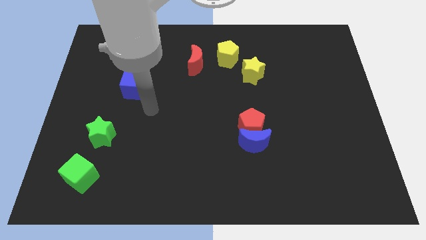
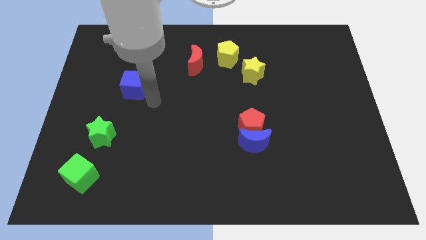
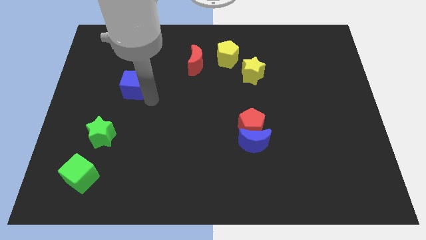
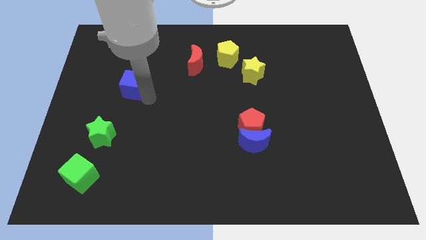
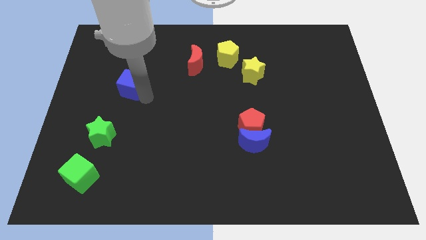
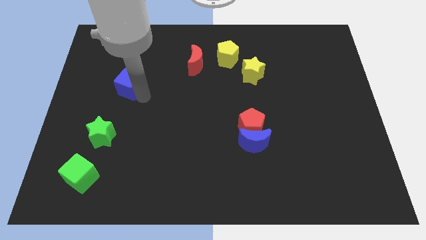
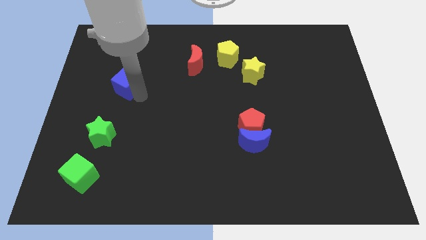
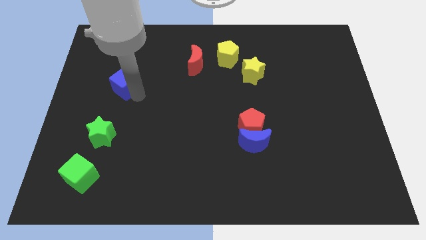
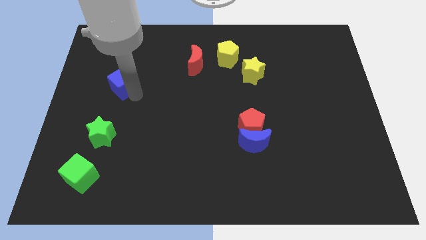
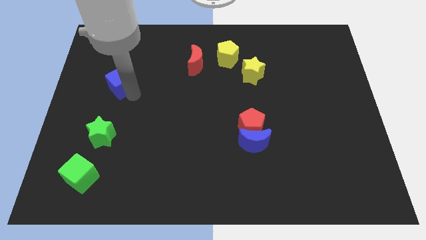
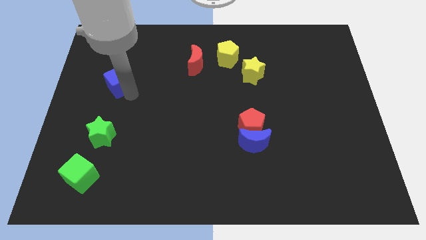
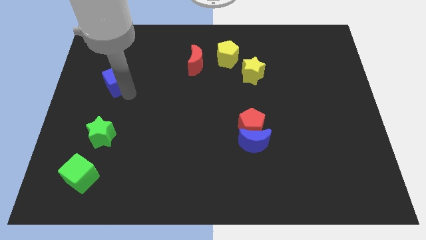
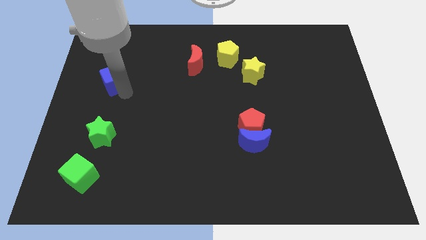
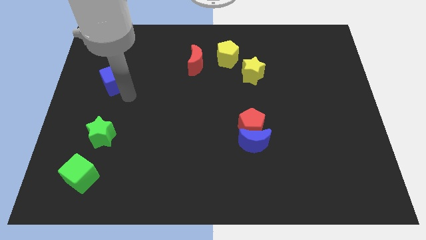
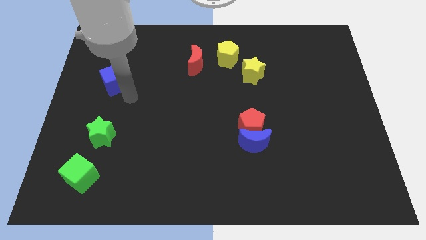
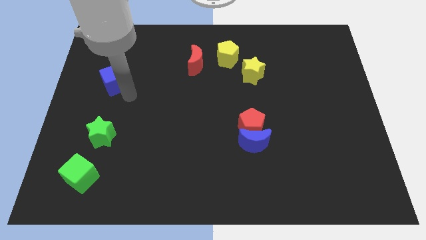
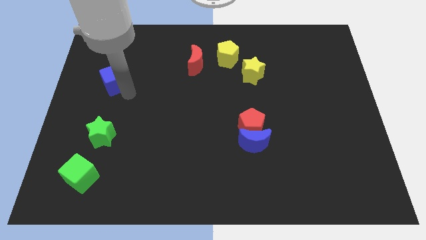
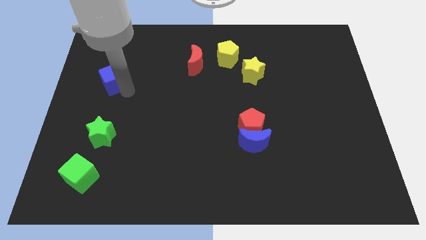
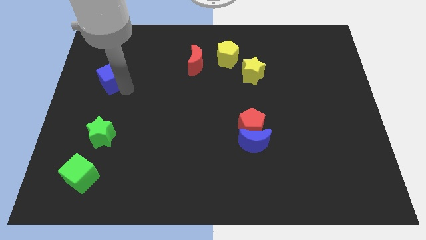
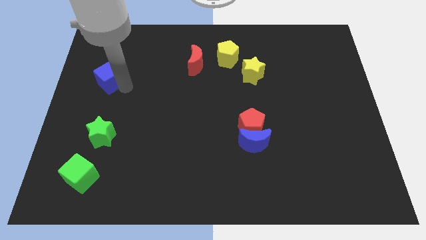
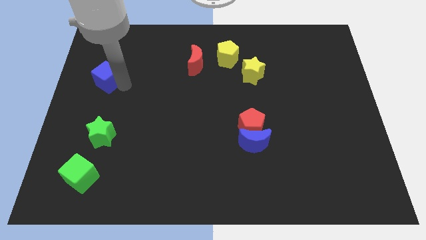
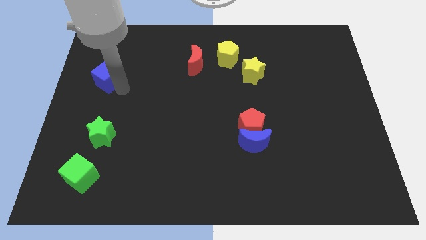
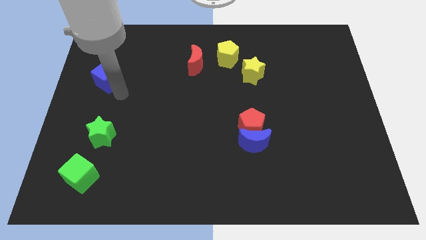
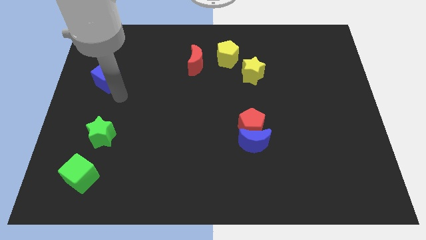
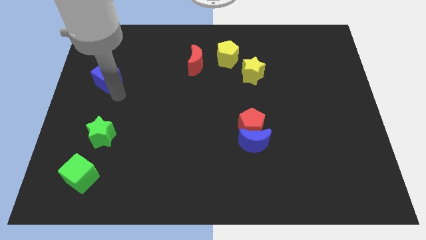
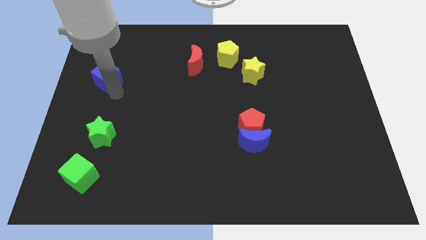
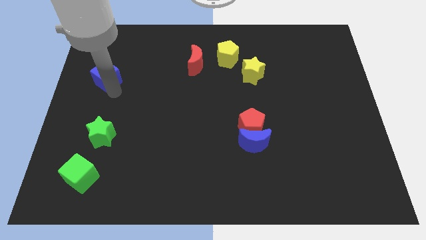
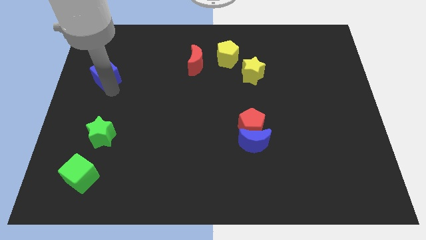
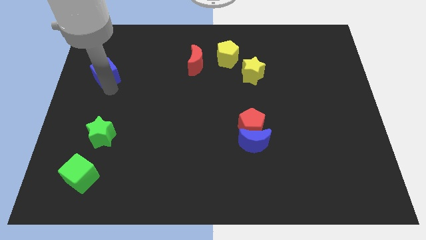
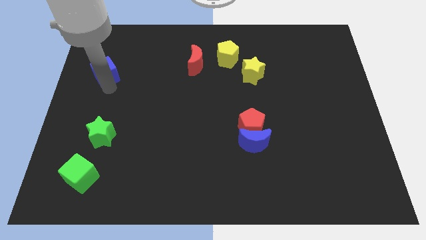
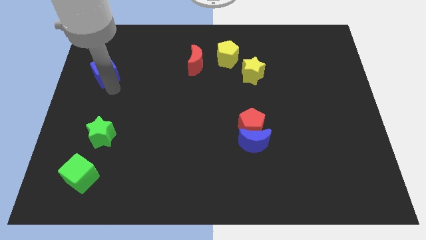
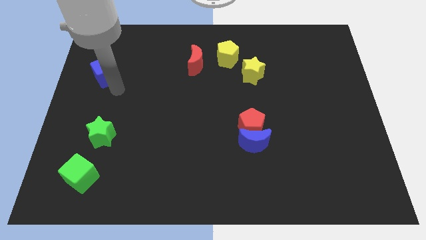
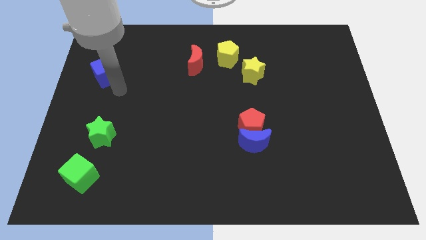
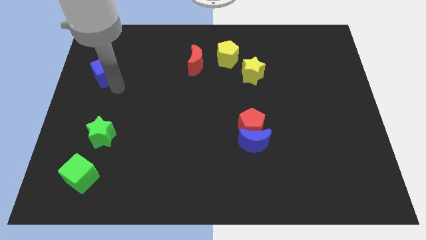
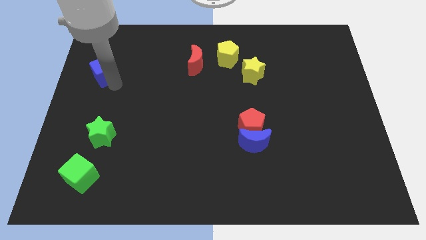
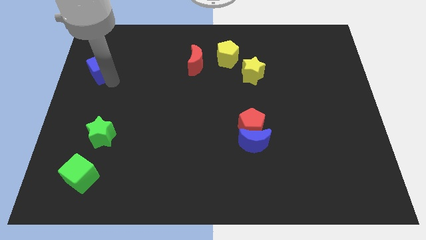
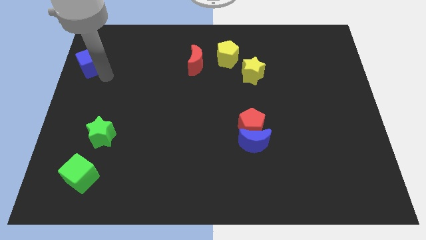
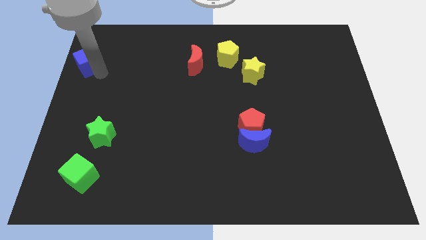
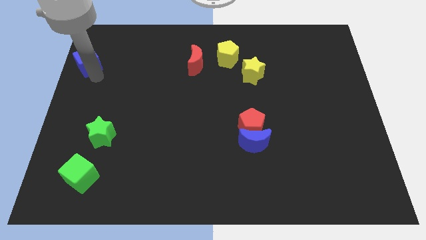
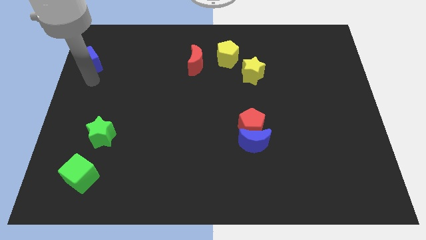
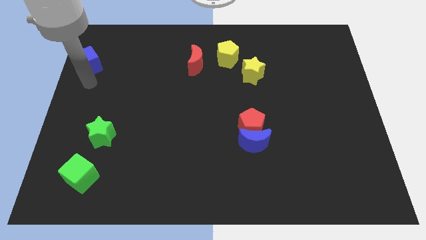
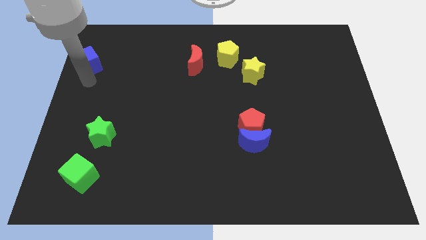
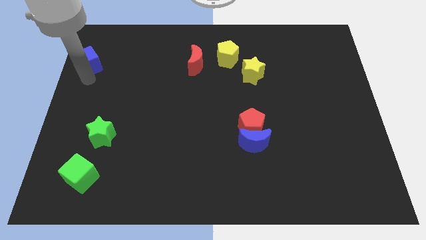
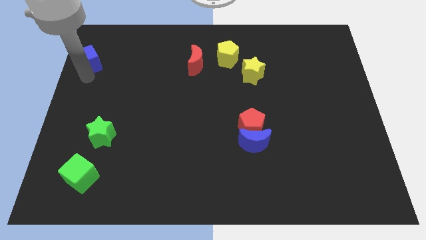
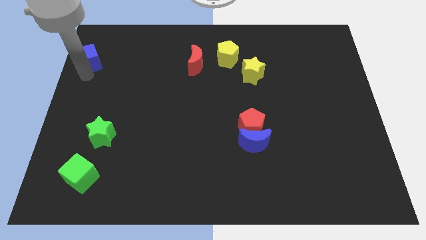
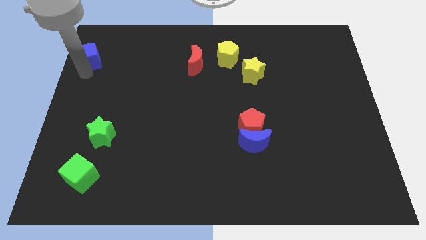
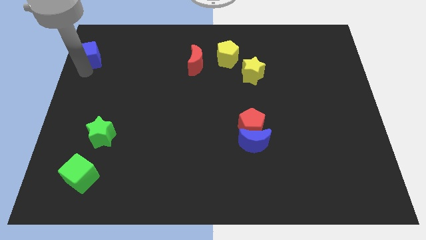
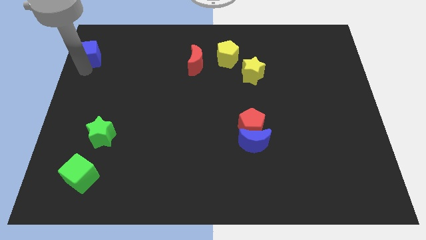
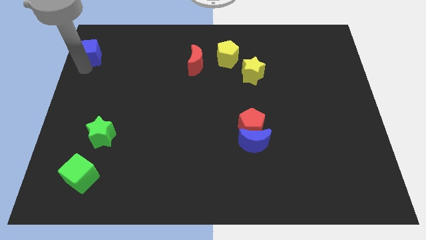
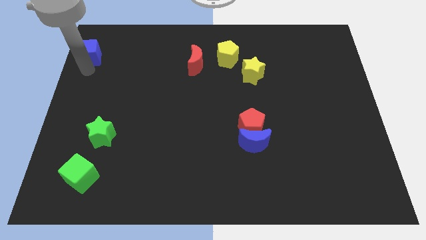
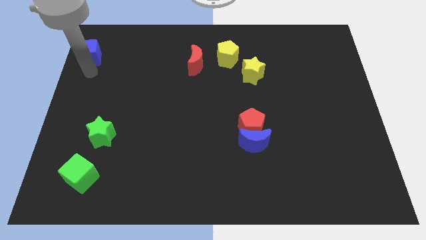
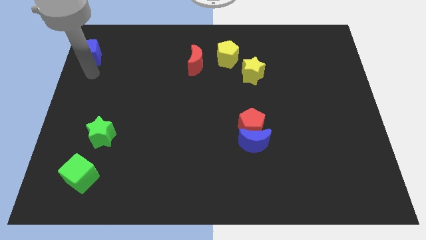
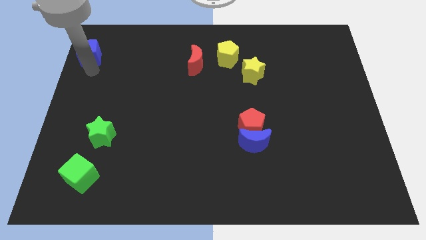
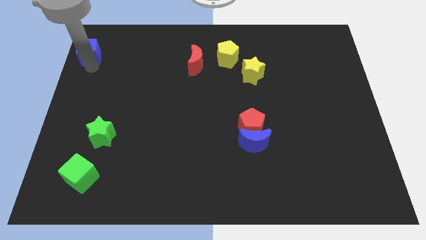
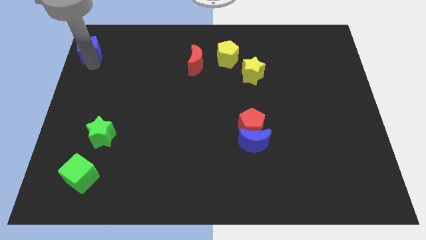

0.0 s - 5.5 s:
put the blue cube to the upper left corner

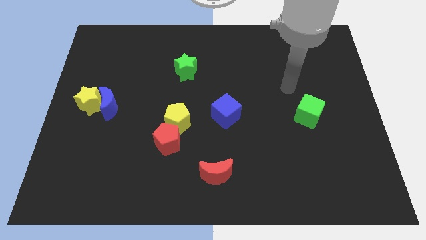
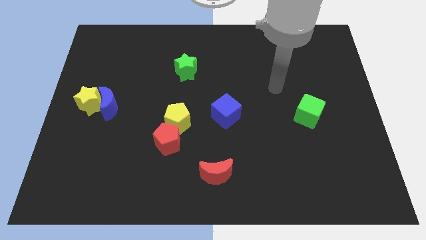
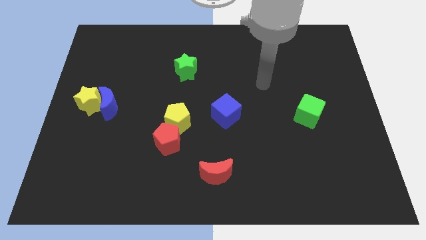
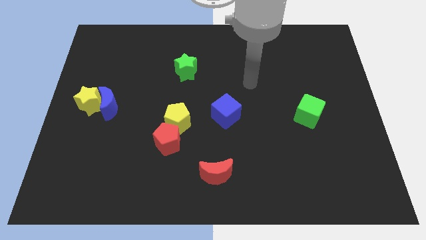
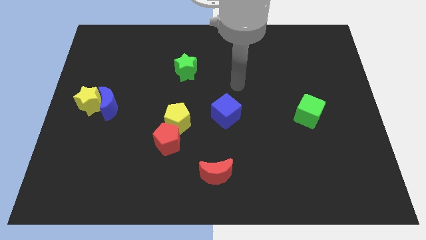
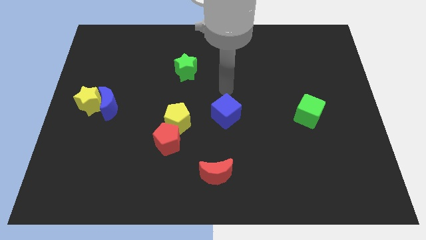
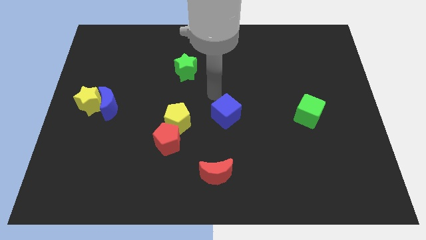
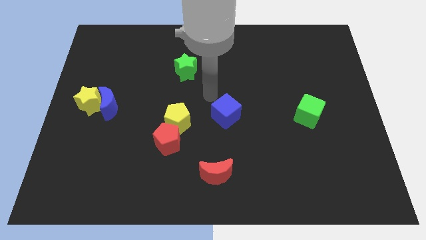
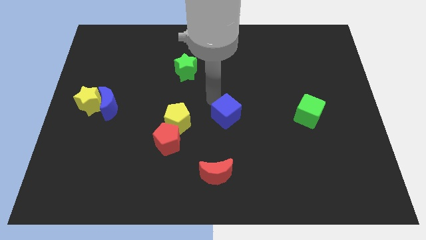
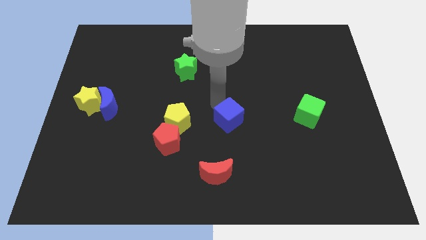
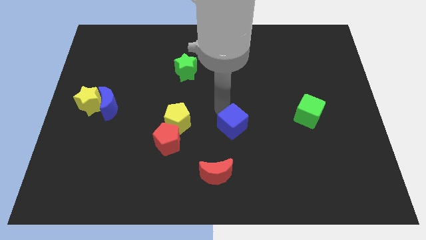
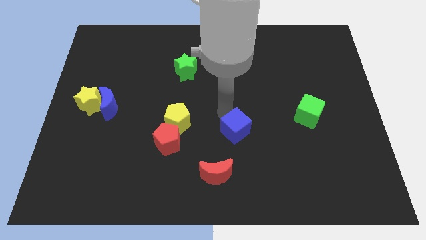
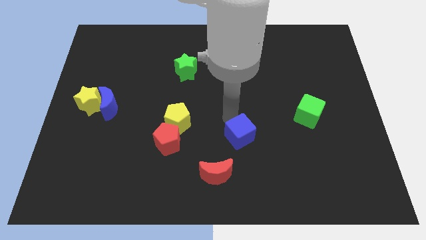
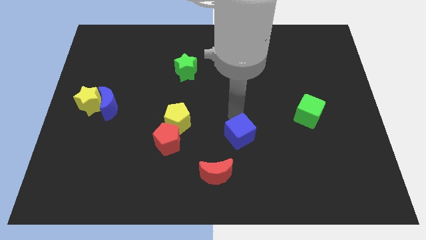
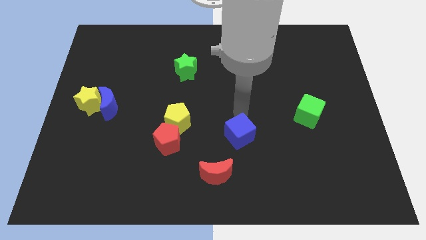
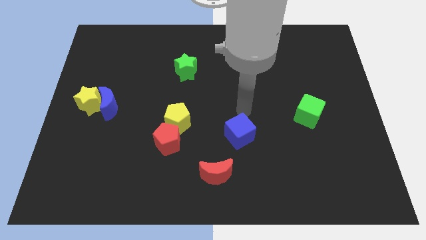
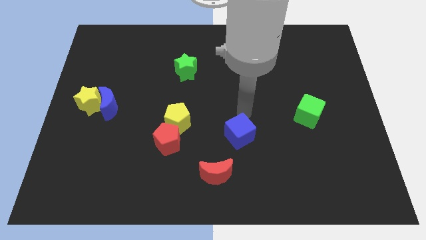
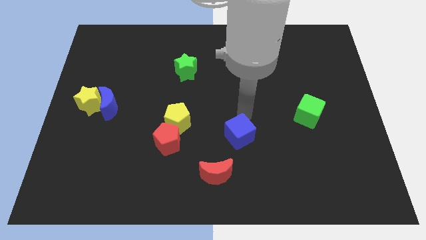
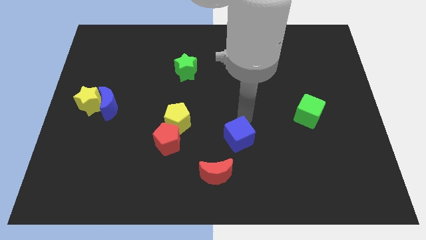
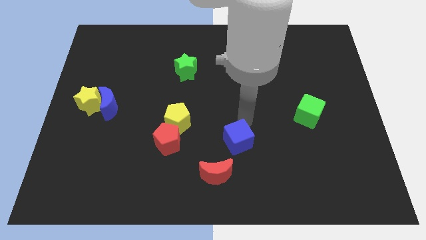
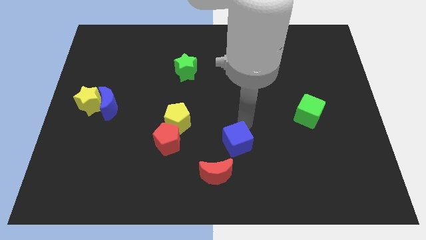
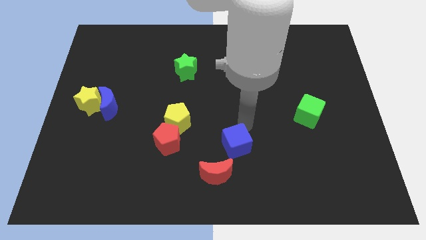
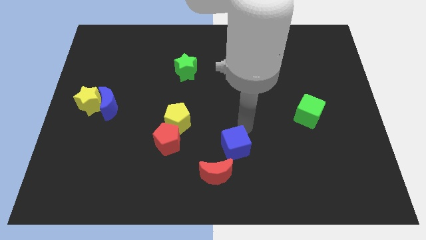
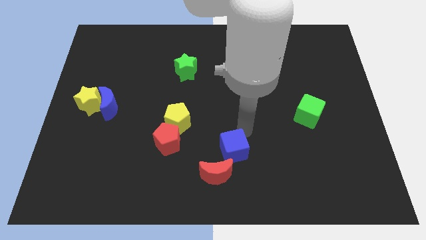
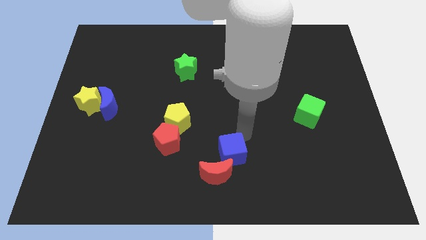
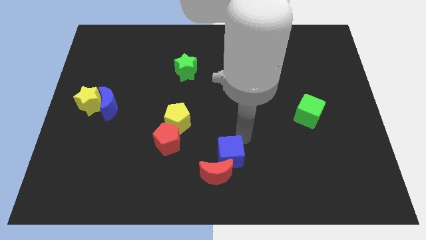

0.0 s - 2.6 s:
put the blue cube to the bottom side
